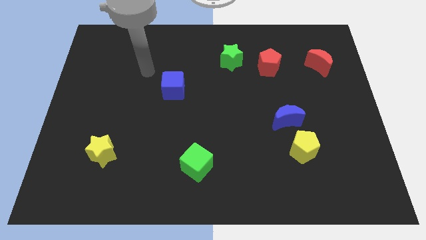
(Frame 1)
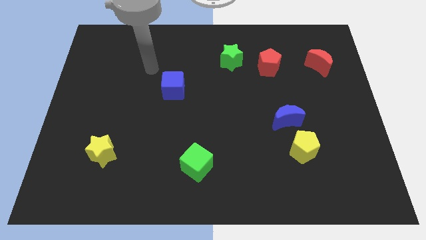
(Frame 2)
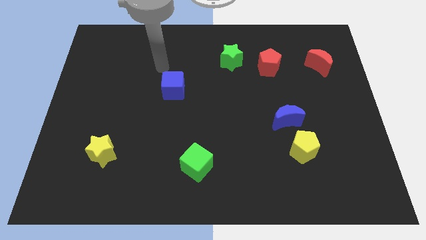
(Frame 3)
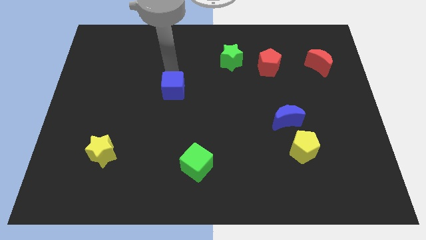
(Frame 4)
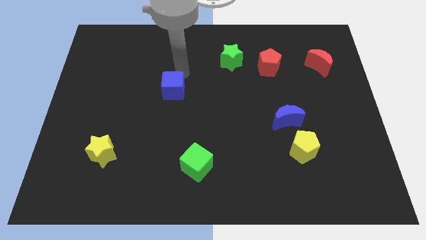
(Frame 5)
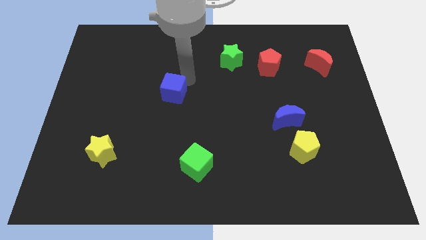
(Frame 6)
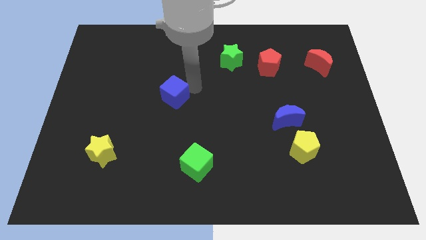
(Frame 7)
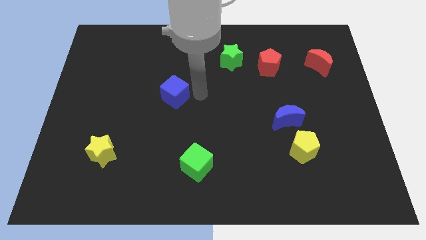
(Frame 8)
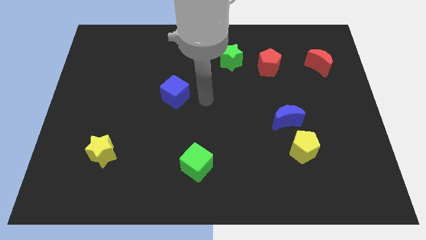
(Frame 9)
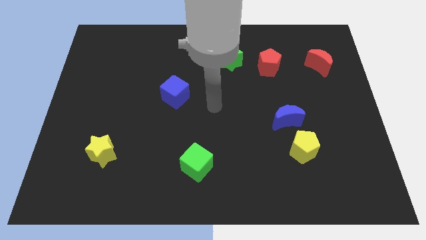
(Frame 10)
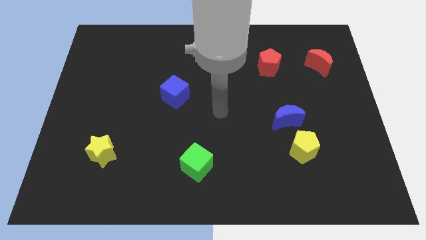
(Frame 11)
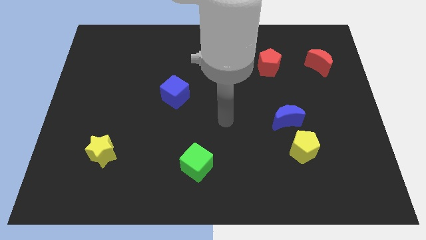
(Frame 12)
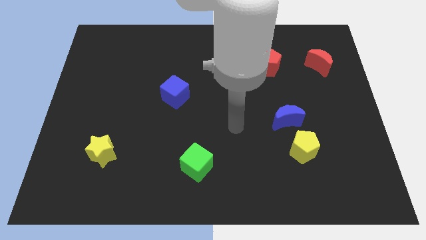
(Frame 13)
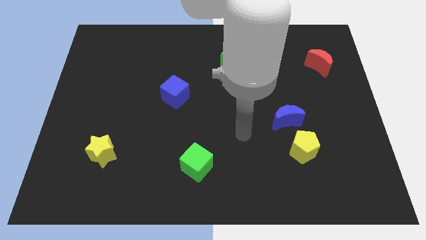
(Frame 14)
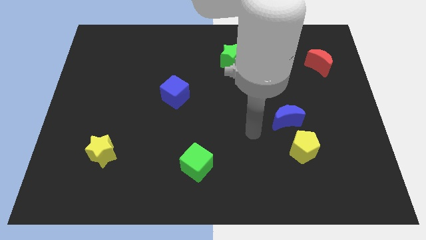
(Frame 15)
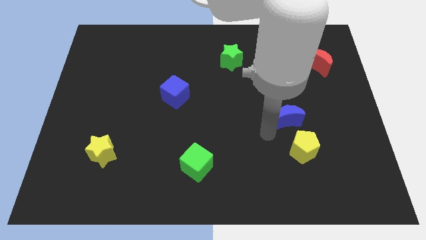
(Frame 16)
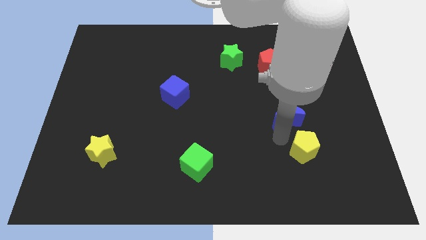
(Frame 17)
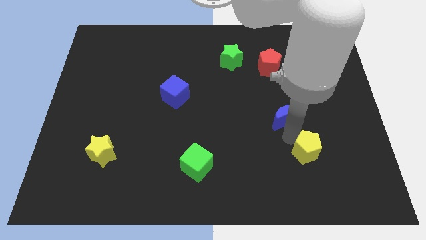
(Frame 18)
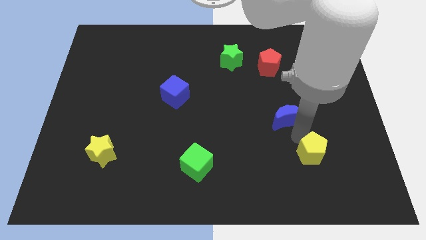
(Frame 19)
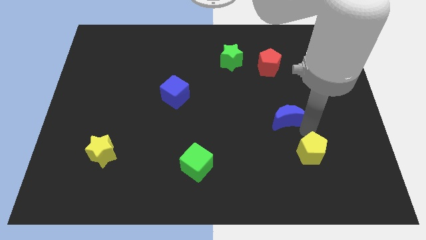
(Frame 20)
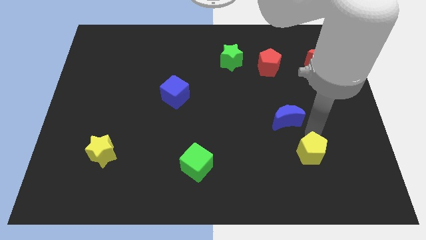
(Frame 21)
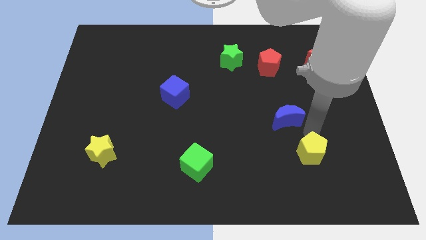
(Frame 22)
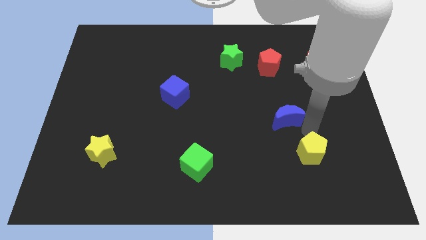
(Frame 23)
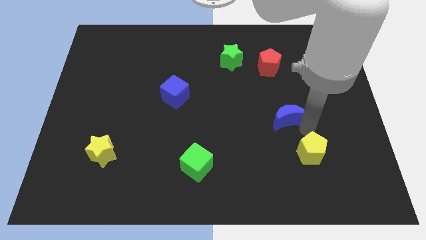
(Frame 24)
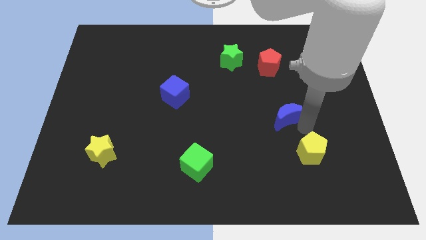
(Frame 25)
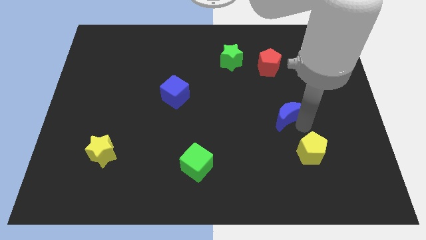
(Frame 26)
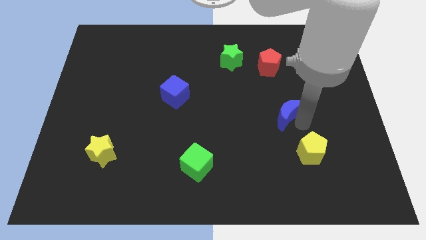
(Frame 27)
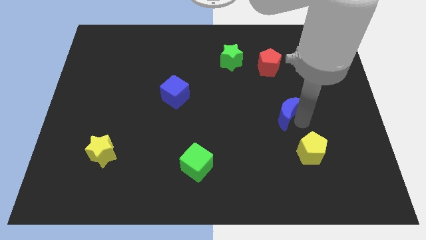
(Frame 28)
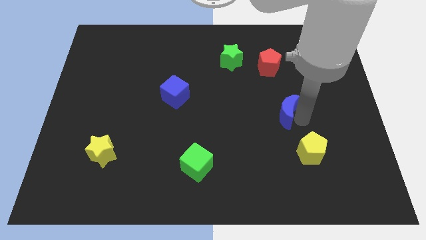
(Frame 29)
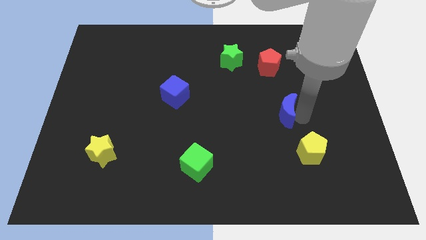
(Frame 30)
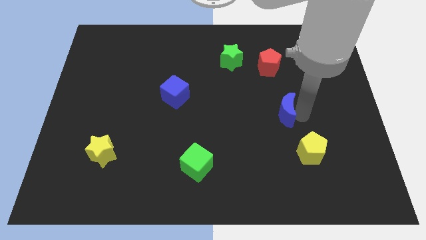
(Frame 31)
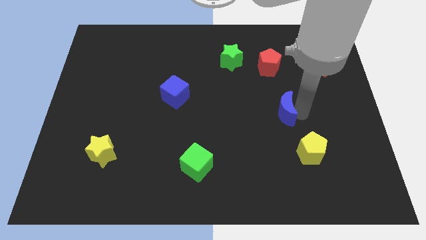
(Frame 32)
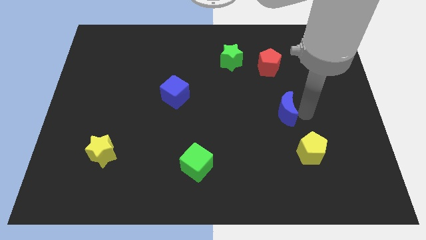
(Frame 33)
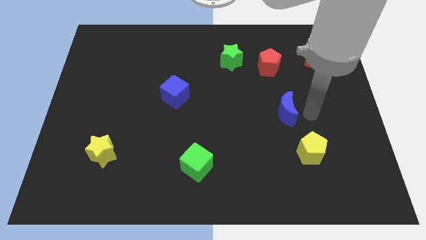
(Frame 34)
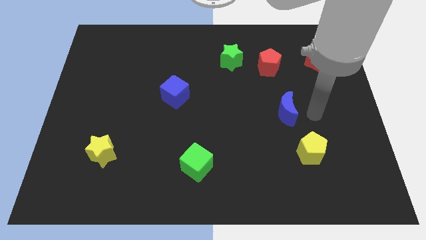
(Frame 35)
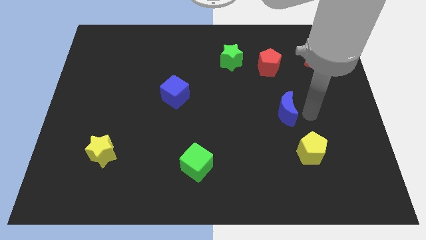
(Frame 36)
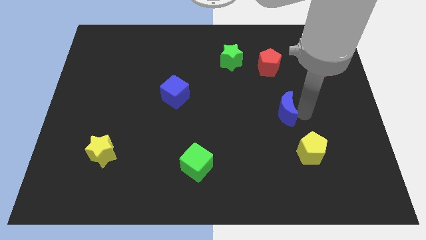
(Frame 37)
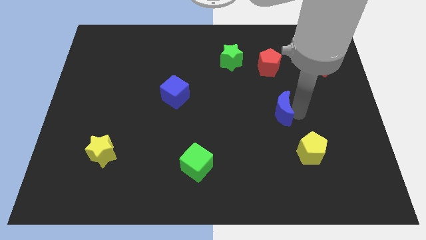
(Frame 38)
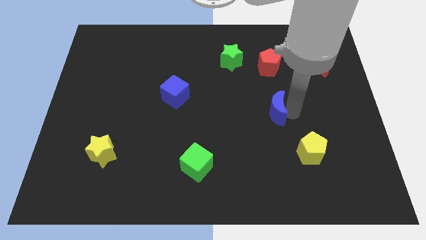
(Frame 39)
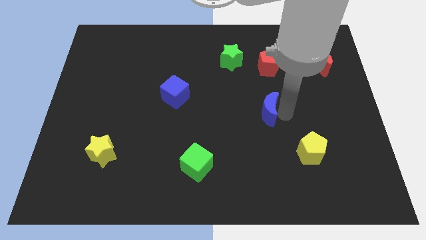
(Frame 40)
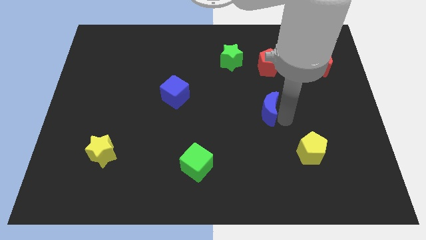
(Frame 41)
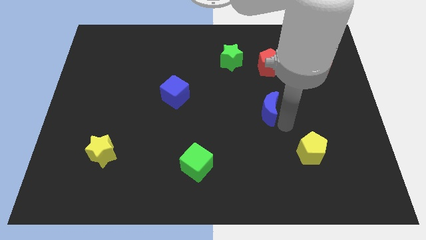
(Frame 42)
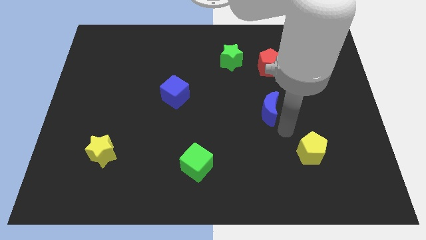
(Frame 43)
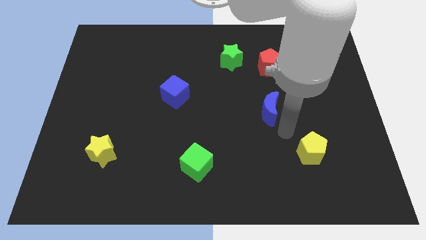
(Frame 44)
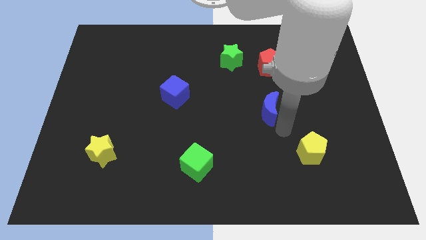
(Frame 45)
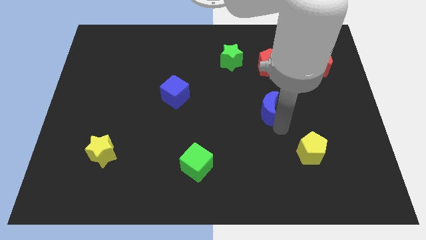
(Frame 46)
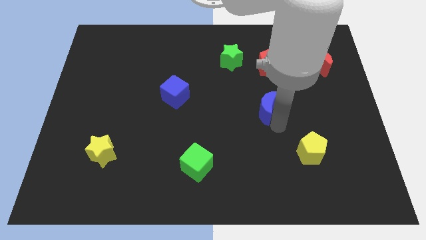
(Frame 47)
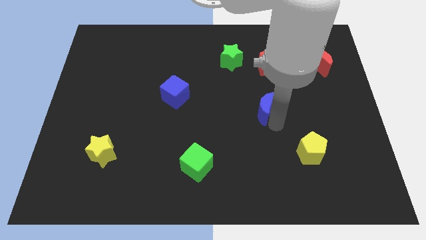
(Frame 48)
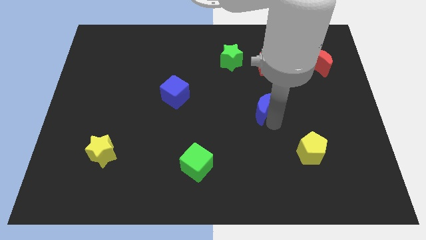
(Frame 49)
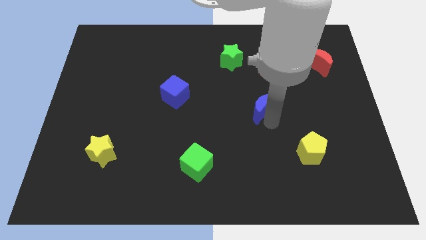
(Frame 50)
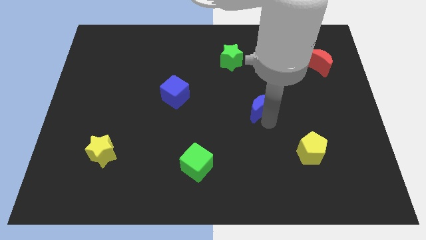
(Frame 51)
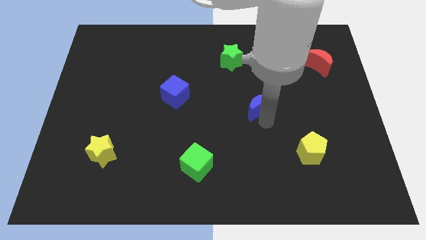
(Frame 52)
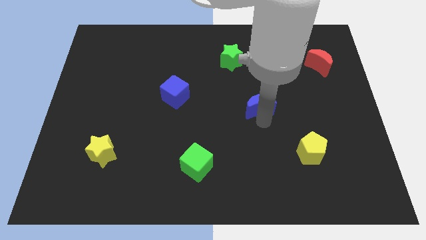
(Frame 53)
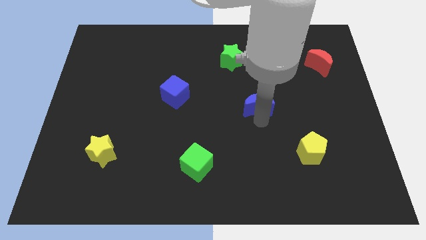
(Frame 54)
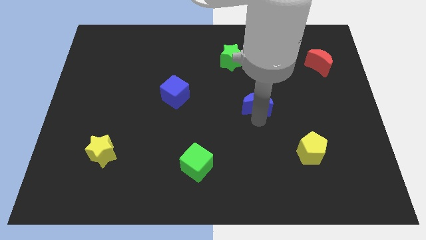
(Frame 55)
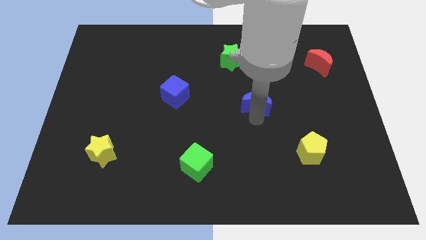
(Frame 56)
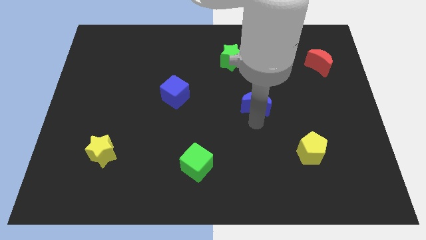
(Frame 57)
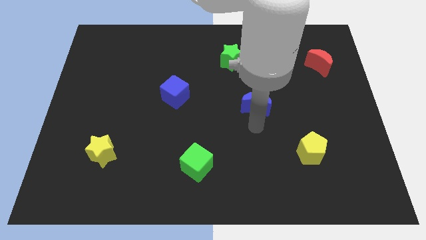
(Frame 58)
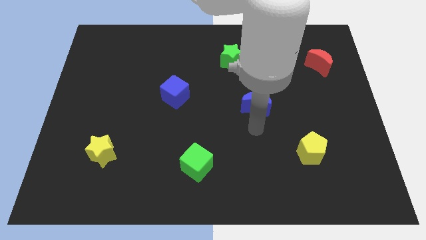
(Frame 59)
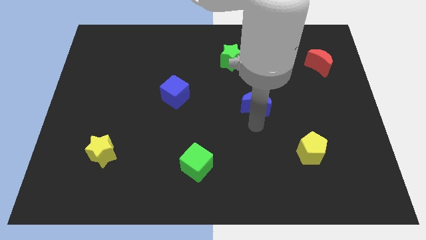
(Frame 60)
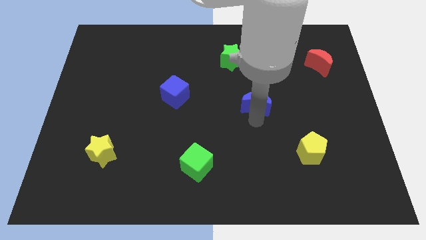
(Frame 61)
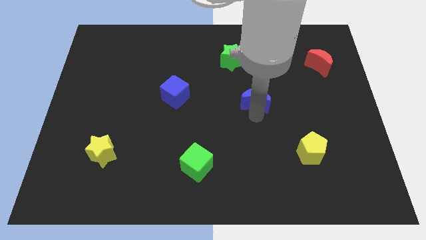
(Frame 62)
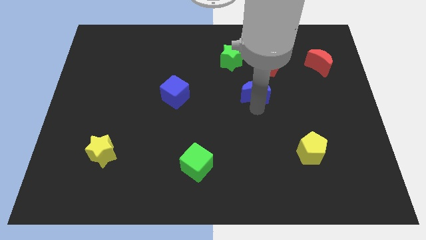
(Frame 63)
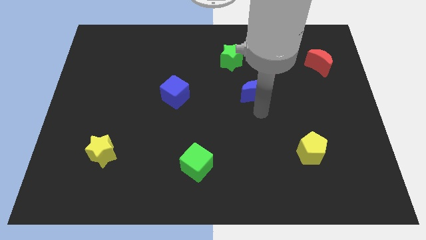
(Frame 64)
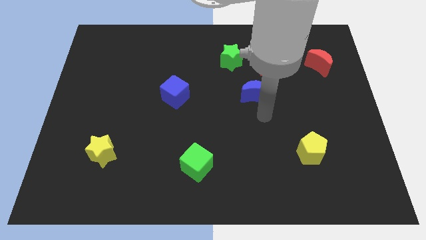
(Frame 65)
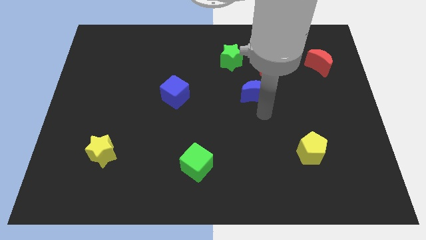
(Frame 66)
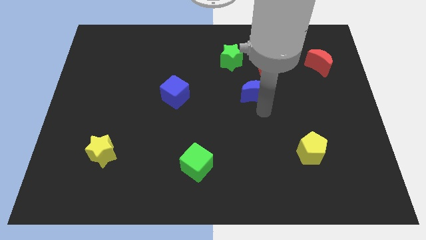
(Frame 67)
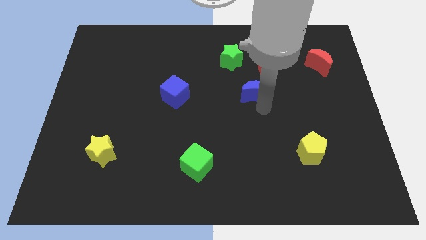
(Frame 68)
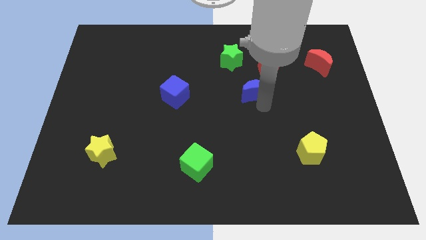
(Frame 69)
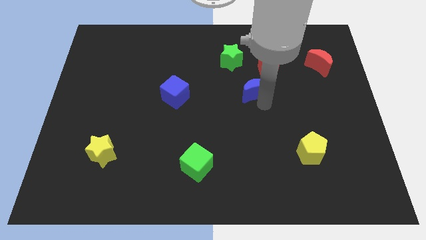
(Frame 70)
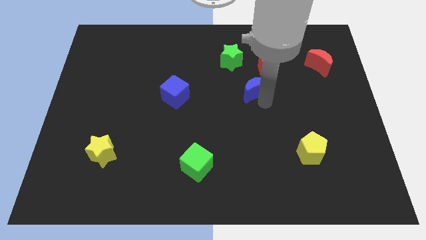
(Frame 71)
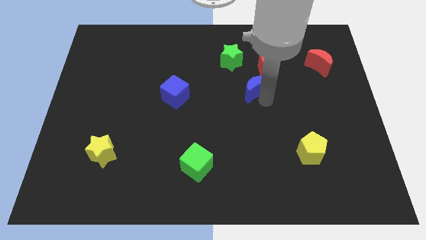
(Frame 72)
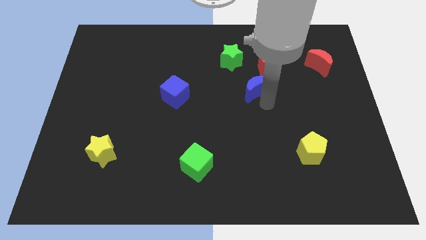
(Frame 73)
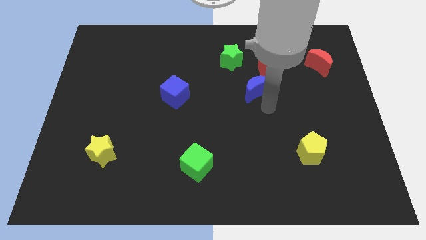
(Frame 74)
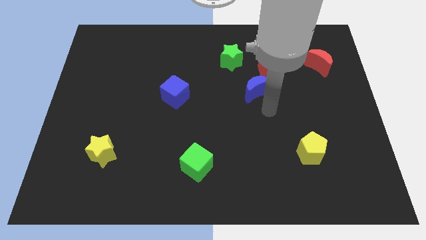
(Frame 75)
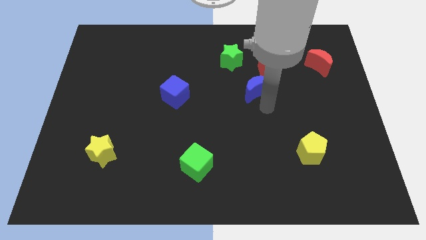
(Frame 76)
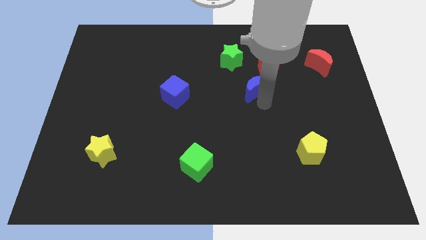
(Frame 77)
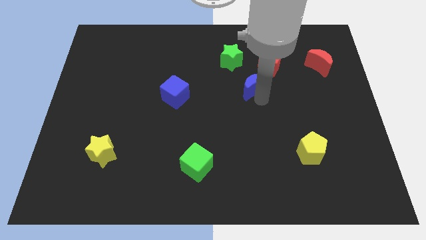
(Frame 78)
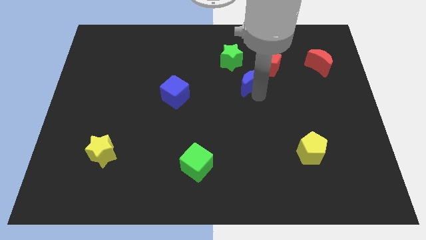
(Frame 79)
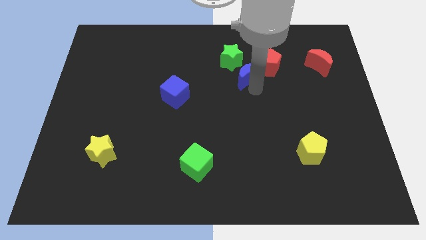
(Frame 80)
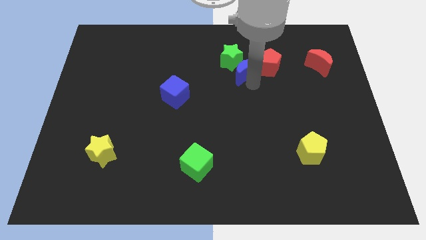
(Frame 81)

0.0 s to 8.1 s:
move the blue moon next to the green star
